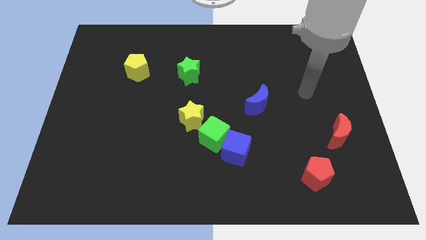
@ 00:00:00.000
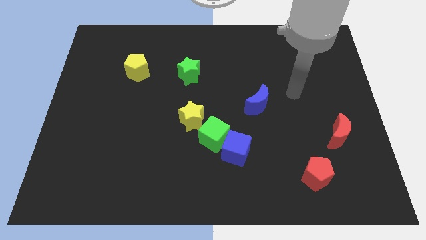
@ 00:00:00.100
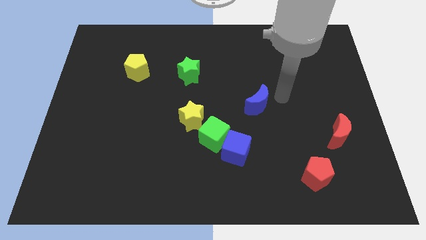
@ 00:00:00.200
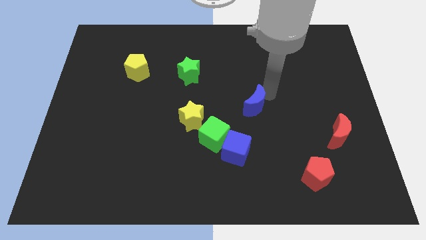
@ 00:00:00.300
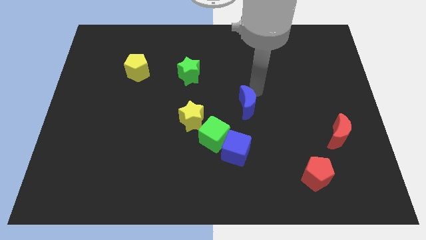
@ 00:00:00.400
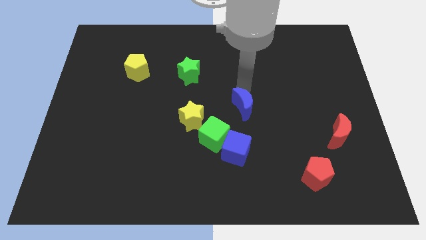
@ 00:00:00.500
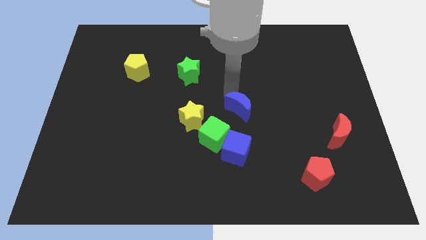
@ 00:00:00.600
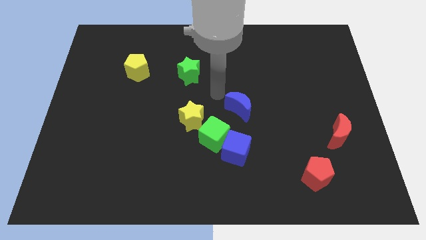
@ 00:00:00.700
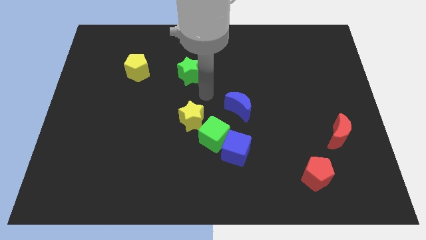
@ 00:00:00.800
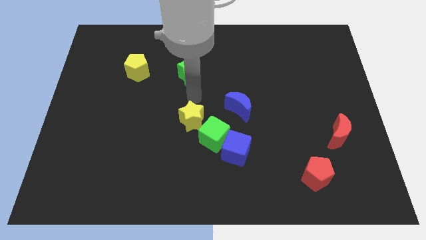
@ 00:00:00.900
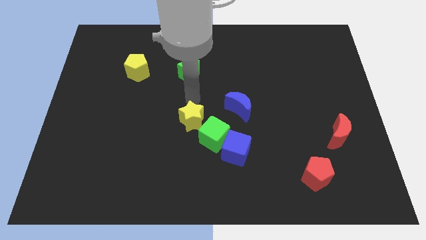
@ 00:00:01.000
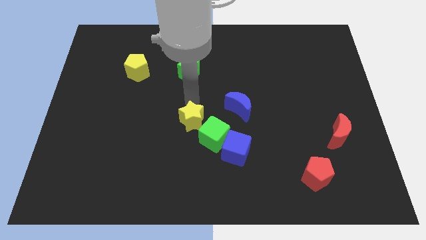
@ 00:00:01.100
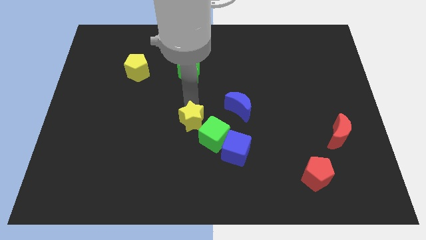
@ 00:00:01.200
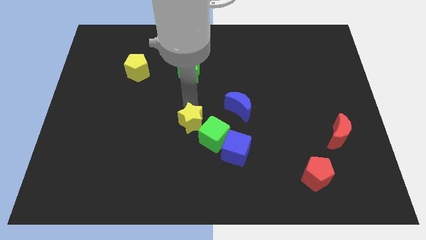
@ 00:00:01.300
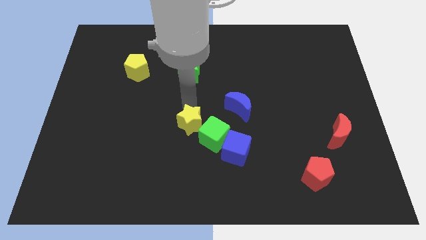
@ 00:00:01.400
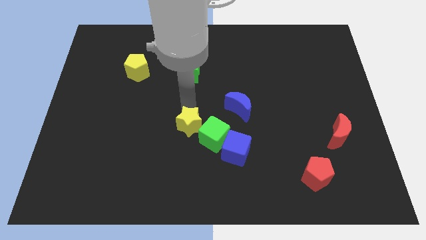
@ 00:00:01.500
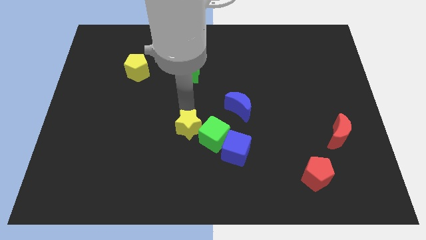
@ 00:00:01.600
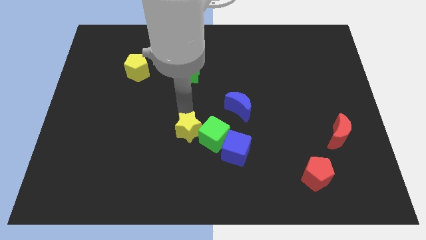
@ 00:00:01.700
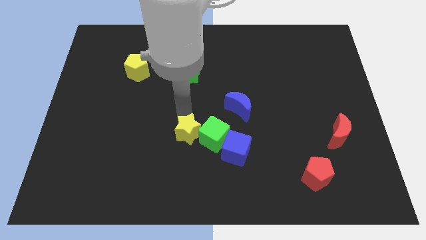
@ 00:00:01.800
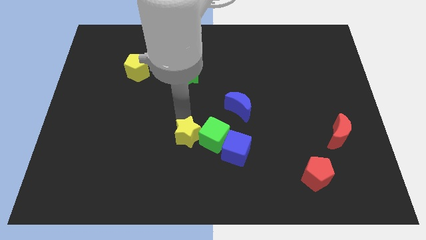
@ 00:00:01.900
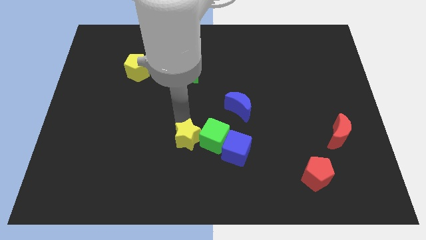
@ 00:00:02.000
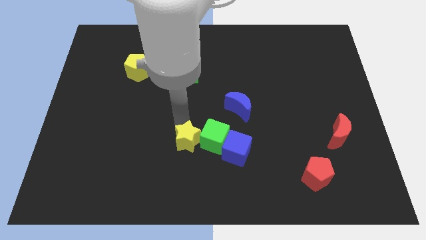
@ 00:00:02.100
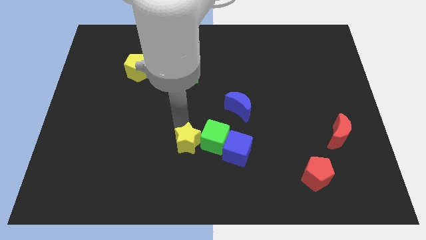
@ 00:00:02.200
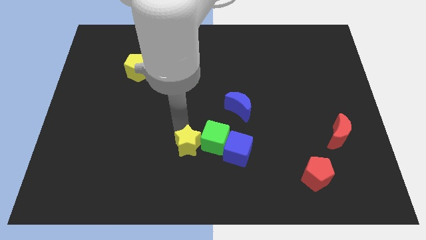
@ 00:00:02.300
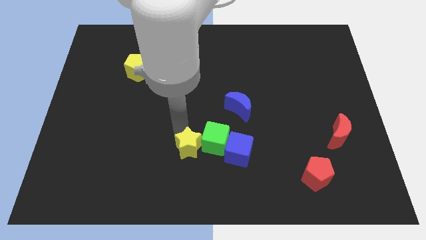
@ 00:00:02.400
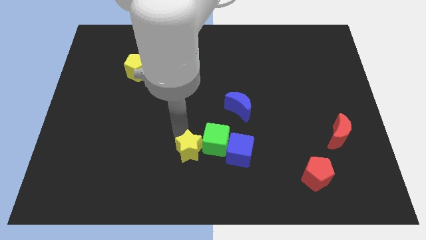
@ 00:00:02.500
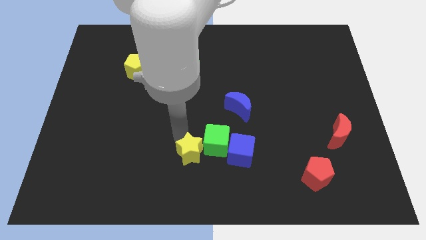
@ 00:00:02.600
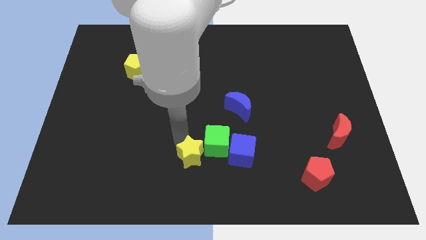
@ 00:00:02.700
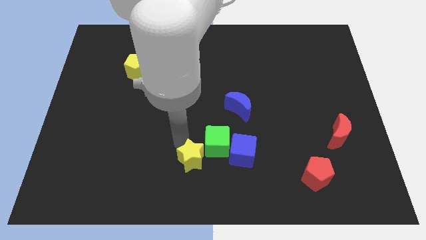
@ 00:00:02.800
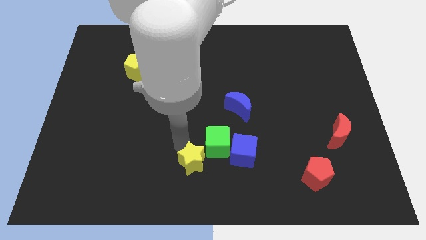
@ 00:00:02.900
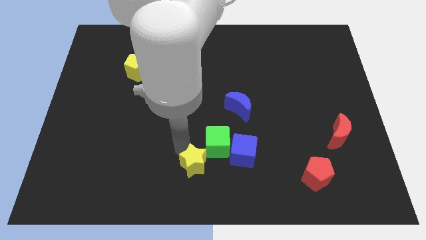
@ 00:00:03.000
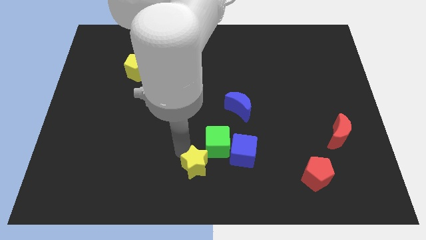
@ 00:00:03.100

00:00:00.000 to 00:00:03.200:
slide the yellow star somewhat diagonally down and to the right

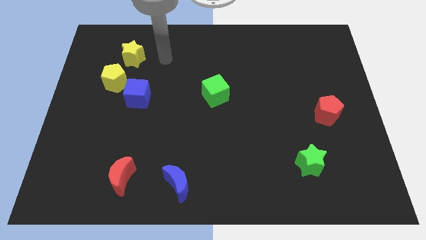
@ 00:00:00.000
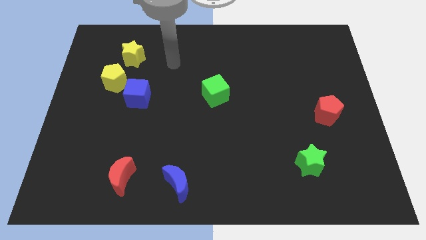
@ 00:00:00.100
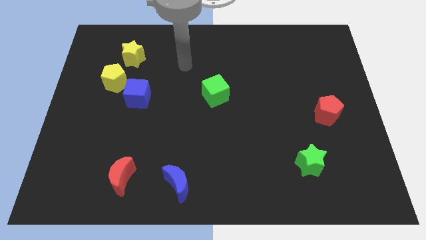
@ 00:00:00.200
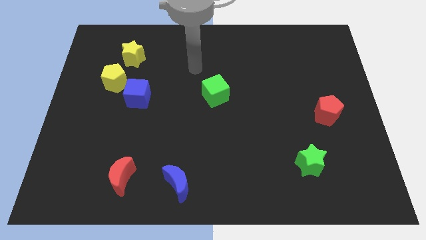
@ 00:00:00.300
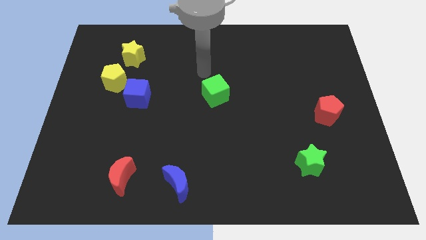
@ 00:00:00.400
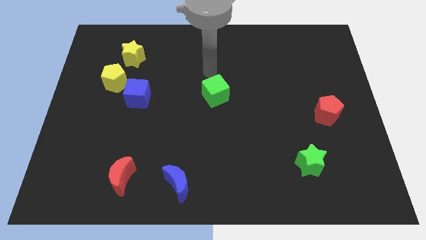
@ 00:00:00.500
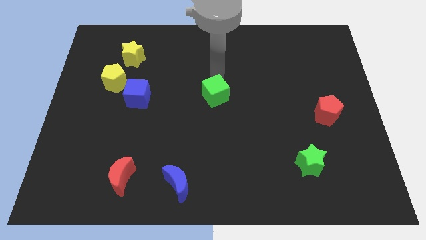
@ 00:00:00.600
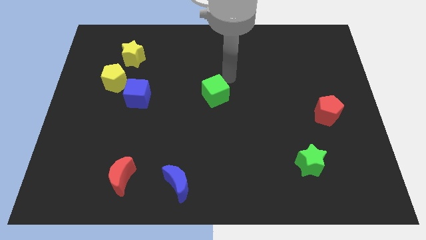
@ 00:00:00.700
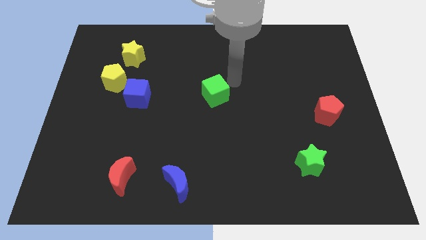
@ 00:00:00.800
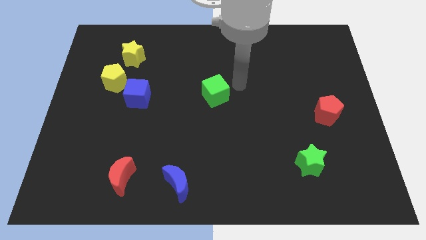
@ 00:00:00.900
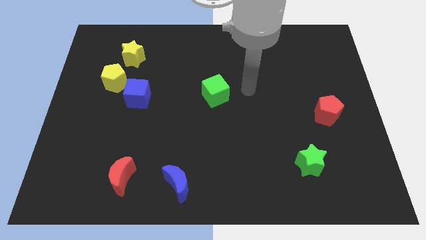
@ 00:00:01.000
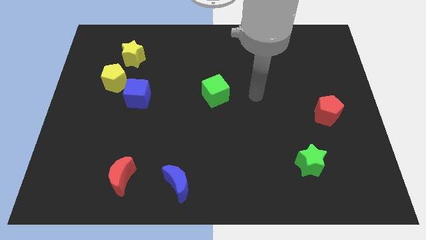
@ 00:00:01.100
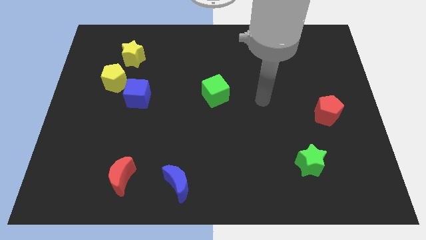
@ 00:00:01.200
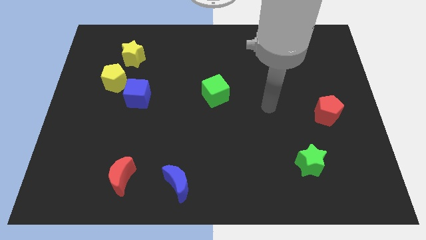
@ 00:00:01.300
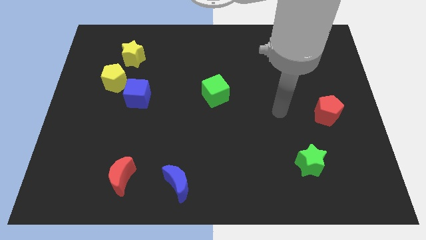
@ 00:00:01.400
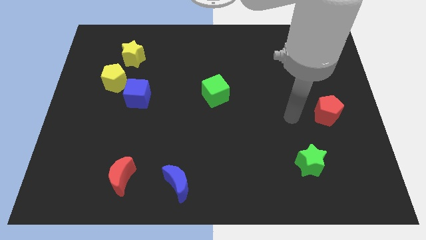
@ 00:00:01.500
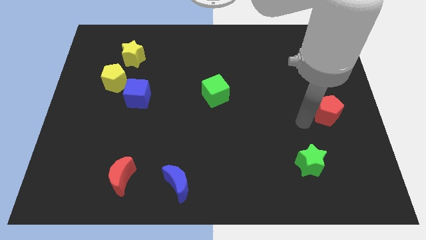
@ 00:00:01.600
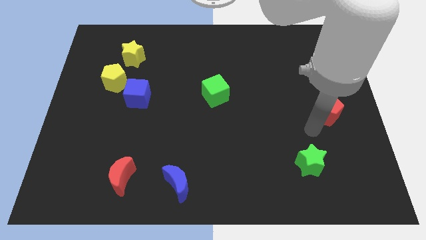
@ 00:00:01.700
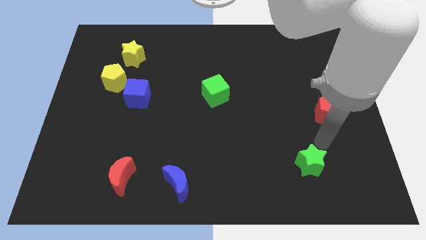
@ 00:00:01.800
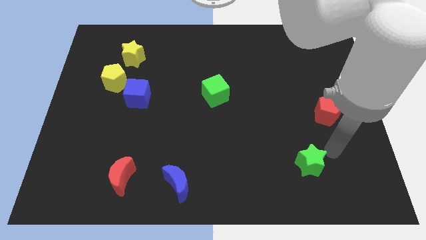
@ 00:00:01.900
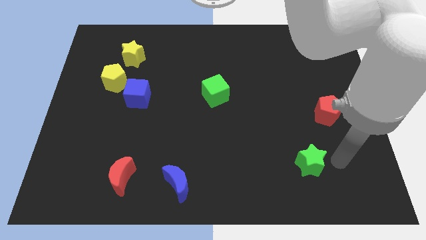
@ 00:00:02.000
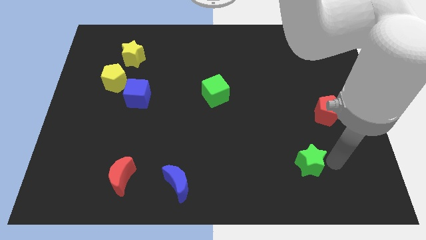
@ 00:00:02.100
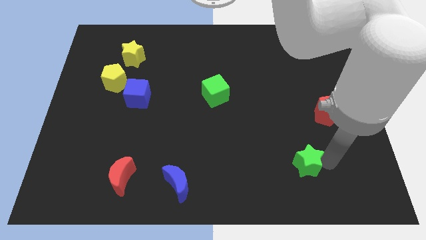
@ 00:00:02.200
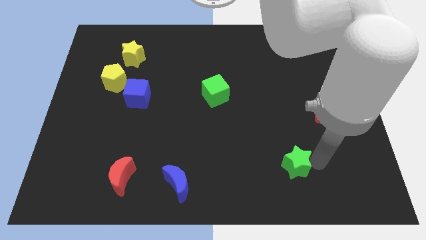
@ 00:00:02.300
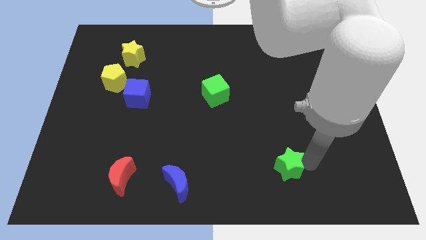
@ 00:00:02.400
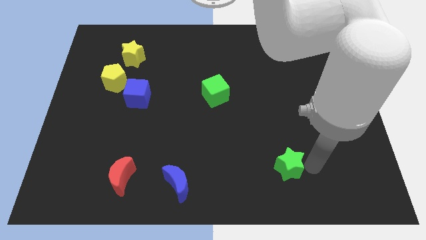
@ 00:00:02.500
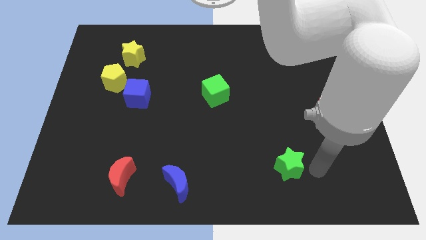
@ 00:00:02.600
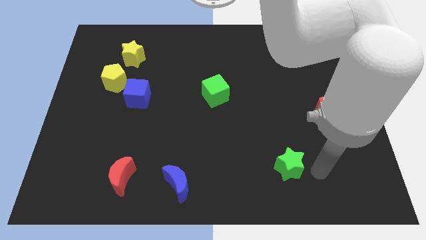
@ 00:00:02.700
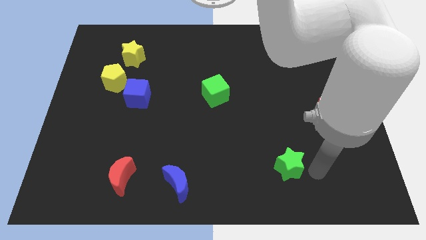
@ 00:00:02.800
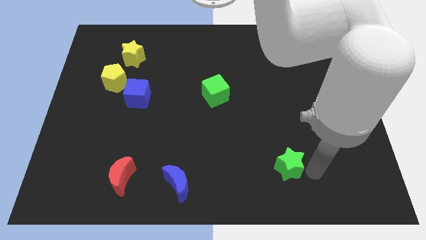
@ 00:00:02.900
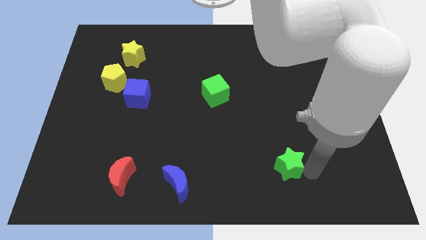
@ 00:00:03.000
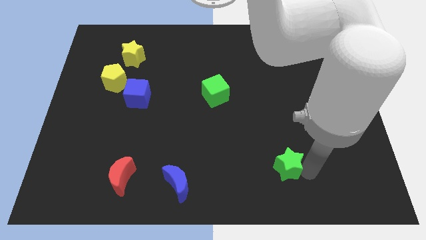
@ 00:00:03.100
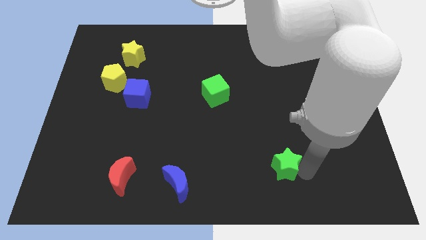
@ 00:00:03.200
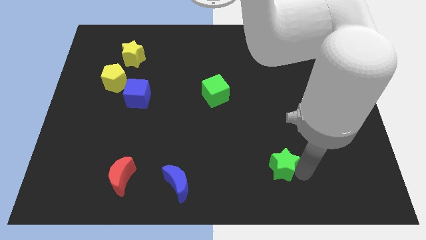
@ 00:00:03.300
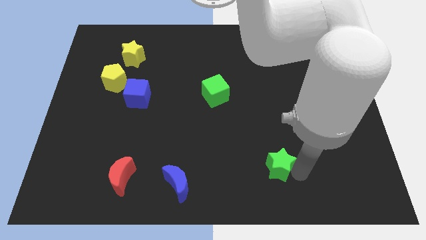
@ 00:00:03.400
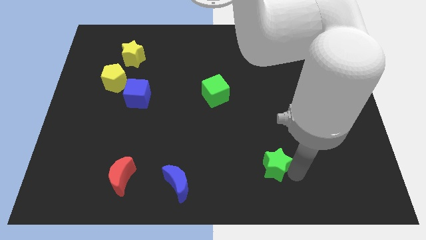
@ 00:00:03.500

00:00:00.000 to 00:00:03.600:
push the green star a little bit to the left

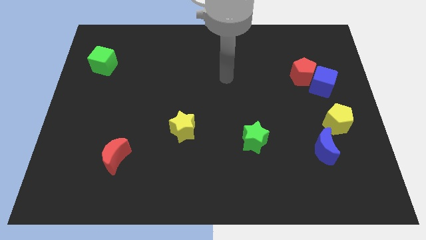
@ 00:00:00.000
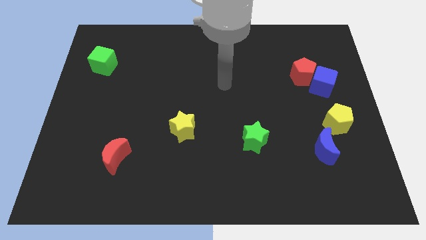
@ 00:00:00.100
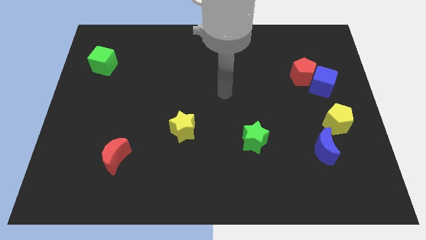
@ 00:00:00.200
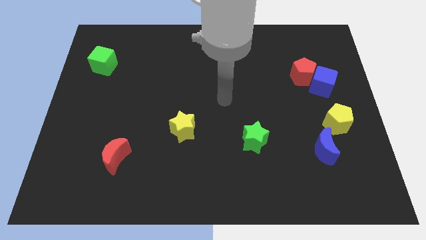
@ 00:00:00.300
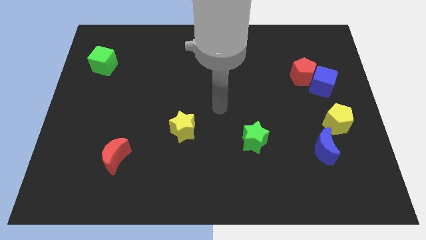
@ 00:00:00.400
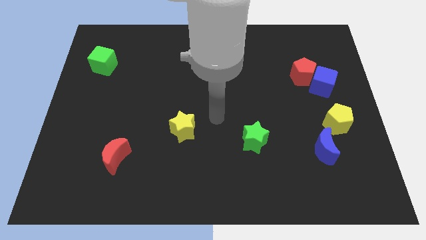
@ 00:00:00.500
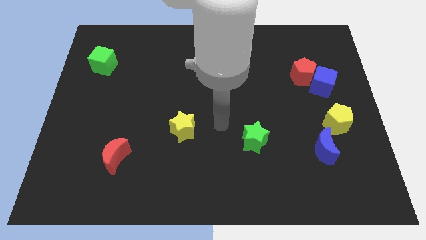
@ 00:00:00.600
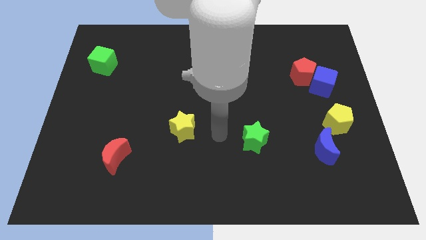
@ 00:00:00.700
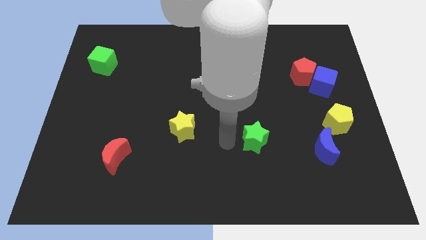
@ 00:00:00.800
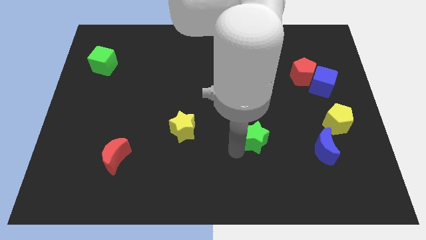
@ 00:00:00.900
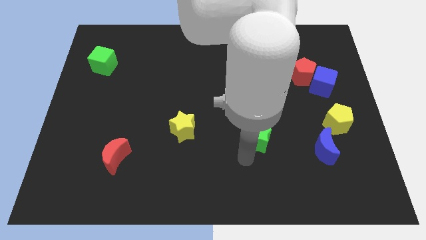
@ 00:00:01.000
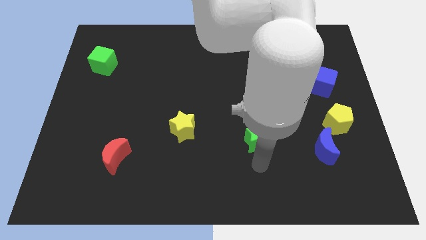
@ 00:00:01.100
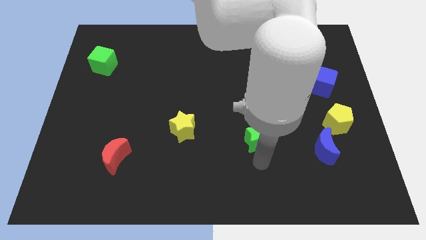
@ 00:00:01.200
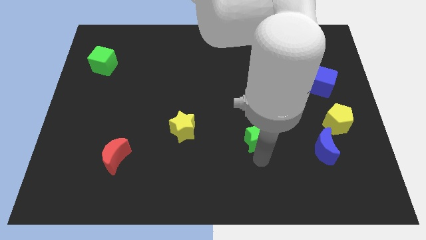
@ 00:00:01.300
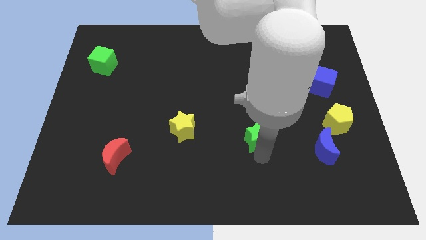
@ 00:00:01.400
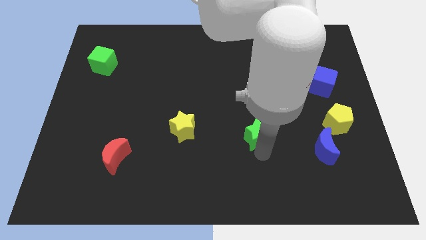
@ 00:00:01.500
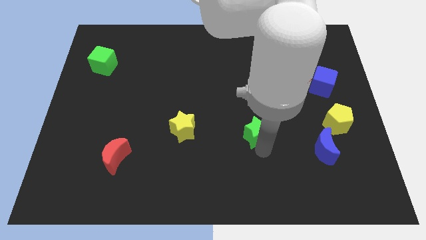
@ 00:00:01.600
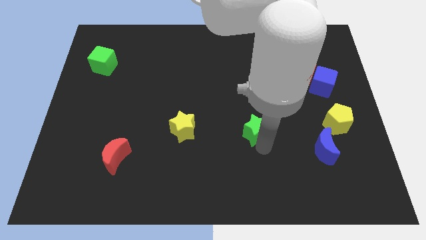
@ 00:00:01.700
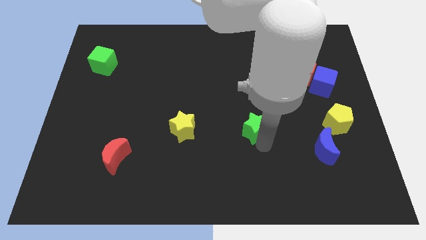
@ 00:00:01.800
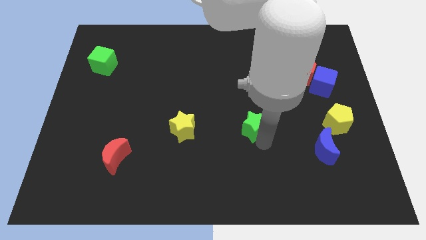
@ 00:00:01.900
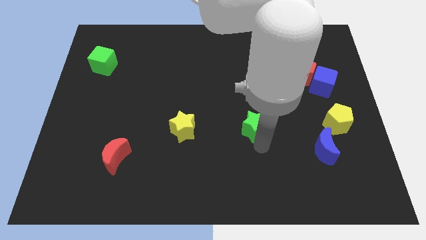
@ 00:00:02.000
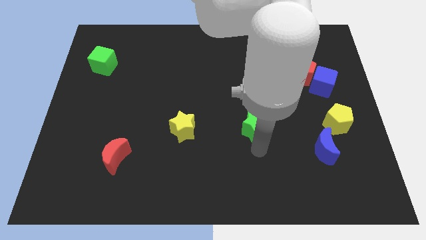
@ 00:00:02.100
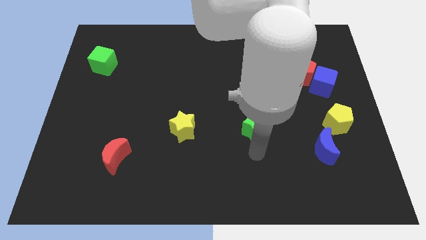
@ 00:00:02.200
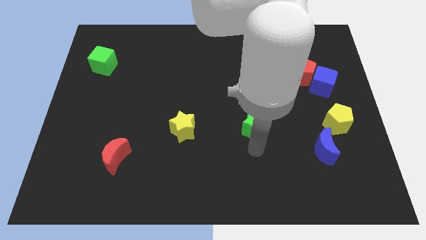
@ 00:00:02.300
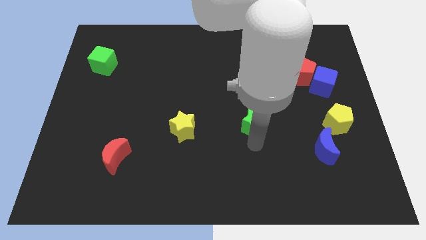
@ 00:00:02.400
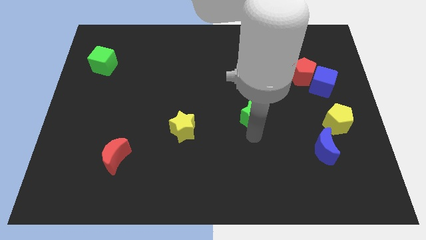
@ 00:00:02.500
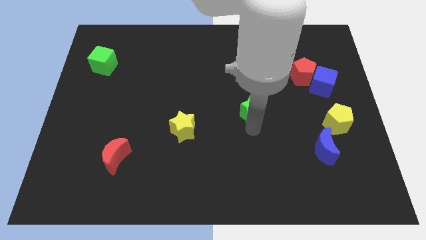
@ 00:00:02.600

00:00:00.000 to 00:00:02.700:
push the green star a little up
